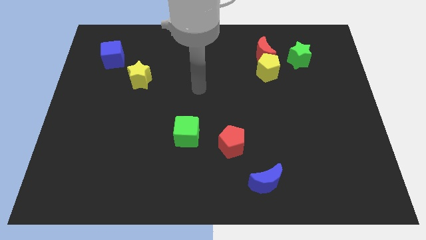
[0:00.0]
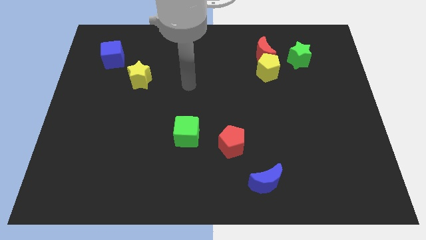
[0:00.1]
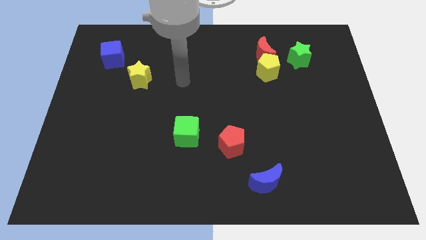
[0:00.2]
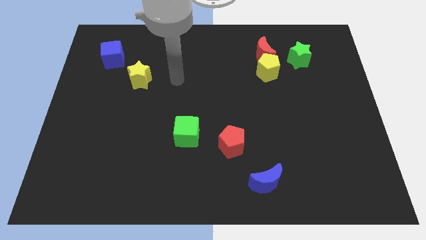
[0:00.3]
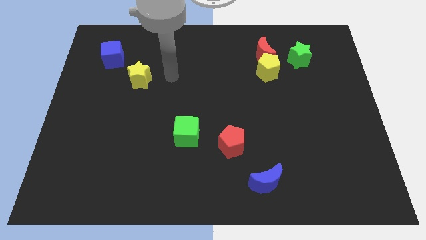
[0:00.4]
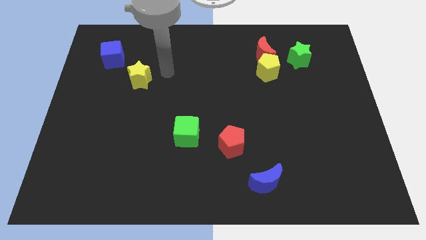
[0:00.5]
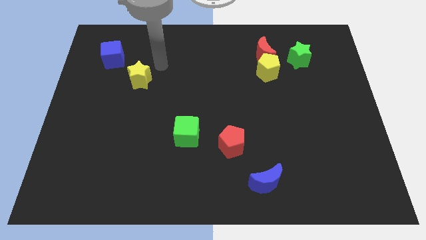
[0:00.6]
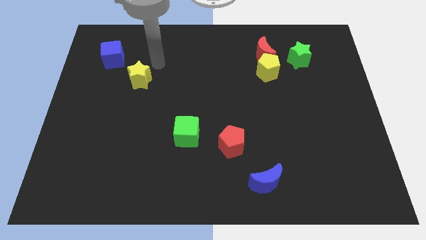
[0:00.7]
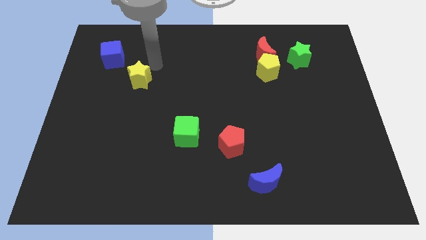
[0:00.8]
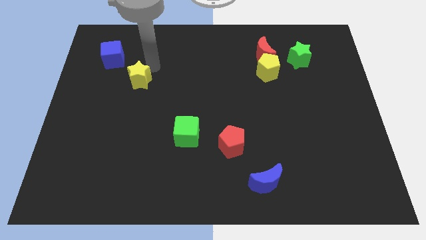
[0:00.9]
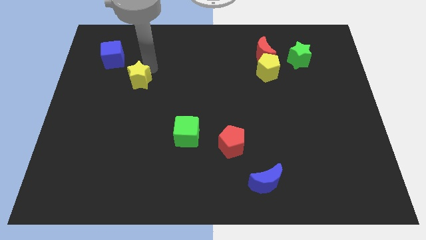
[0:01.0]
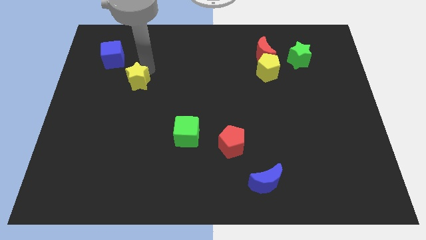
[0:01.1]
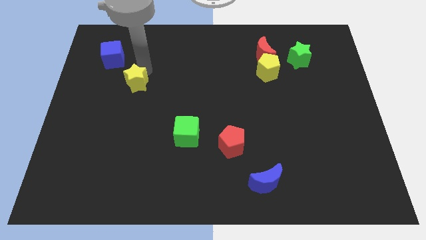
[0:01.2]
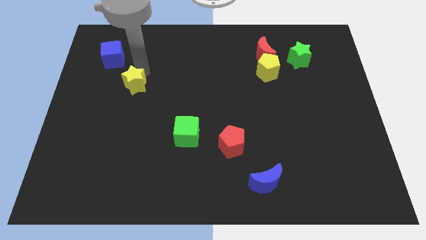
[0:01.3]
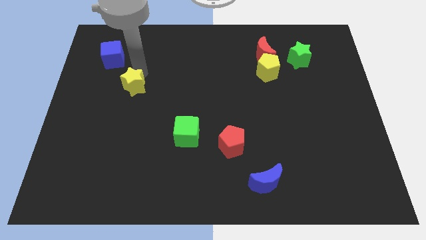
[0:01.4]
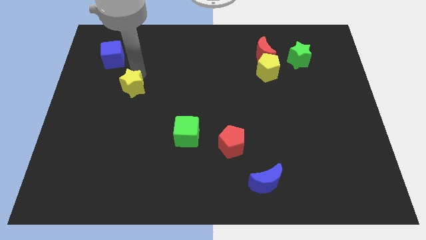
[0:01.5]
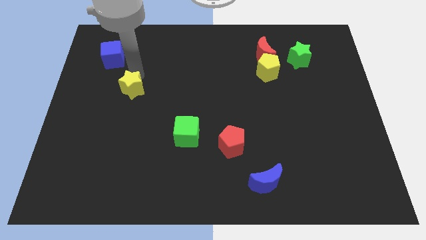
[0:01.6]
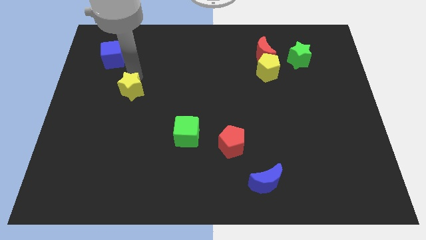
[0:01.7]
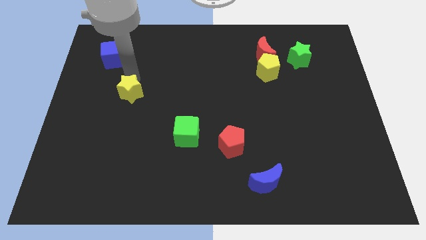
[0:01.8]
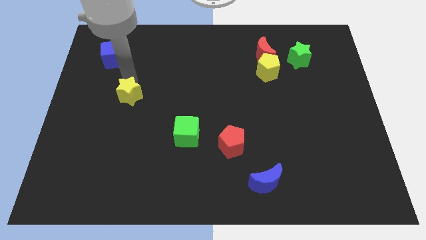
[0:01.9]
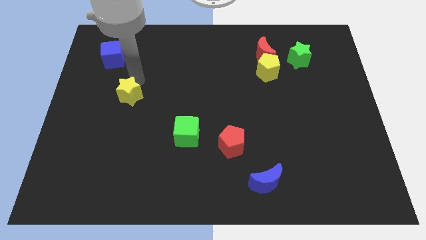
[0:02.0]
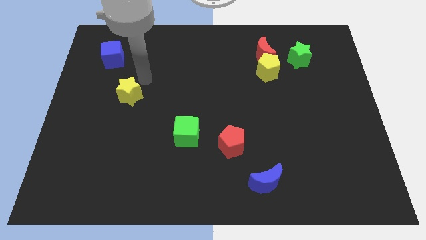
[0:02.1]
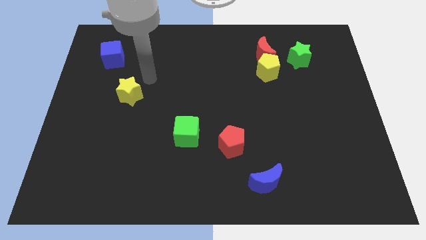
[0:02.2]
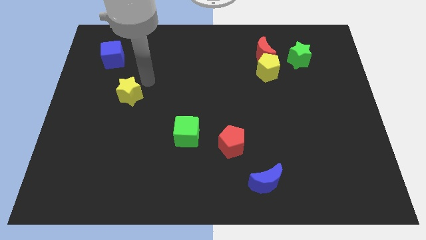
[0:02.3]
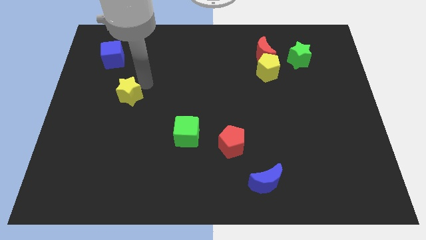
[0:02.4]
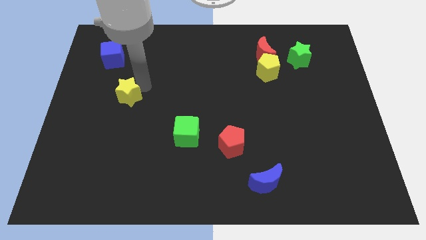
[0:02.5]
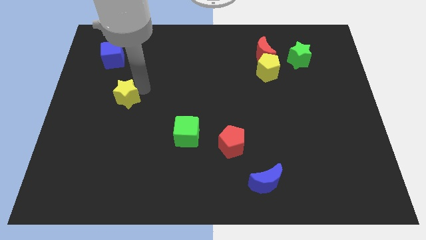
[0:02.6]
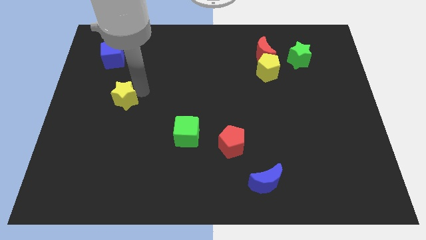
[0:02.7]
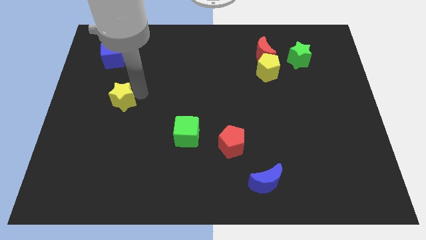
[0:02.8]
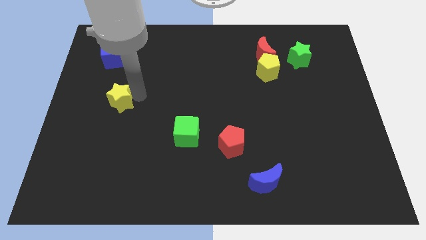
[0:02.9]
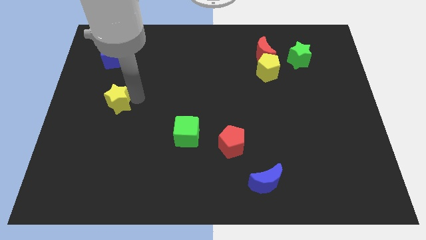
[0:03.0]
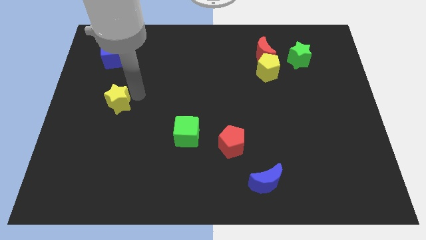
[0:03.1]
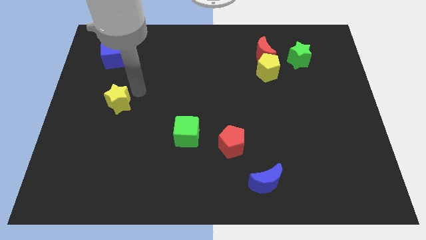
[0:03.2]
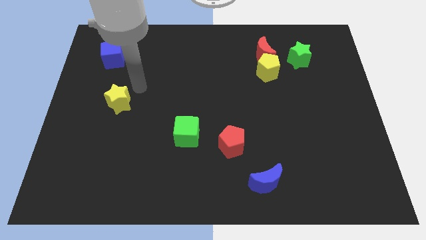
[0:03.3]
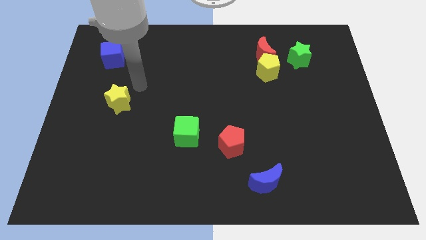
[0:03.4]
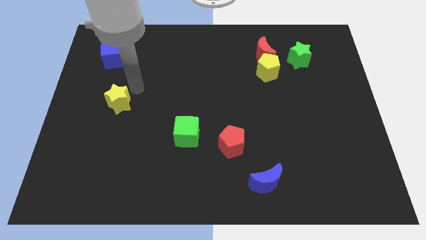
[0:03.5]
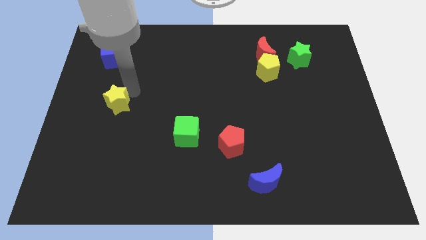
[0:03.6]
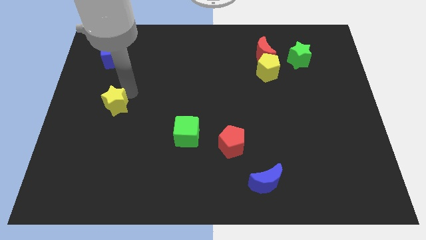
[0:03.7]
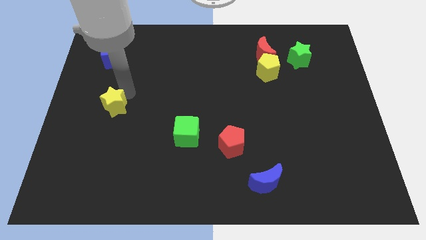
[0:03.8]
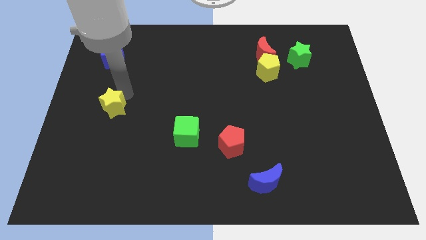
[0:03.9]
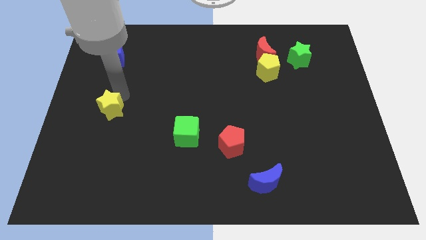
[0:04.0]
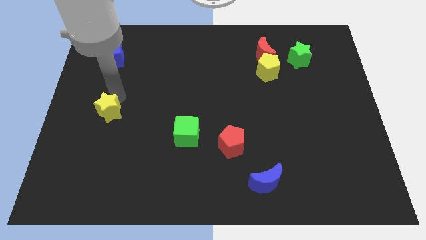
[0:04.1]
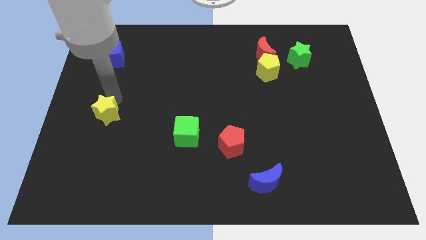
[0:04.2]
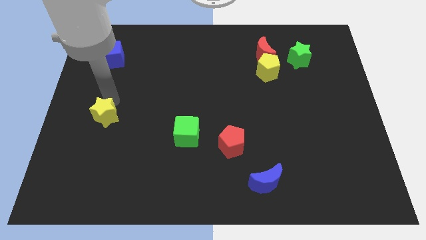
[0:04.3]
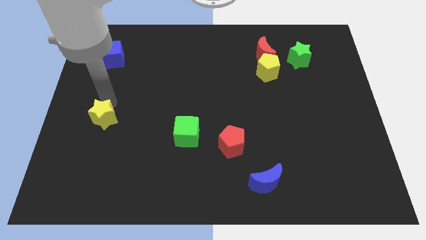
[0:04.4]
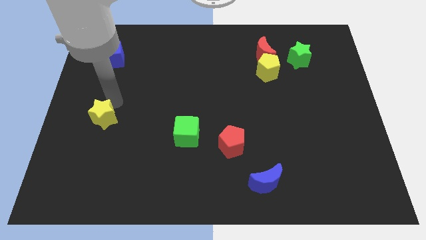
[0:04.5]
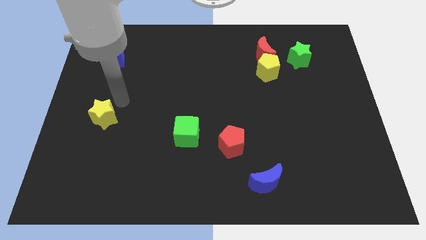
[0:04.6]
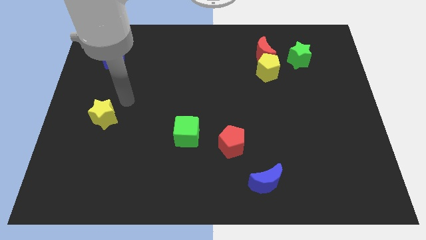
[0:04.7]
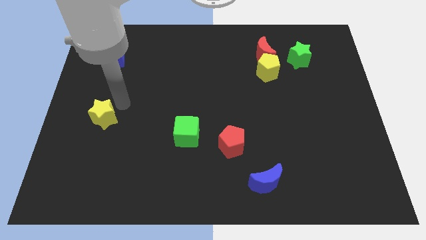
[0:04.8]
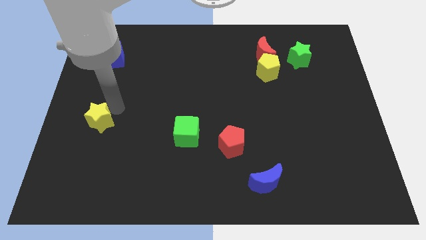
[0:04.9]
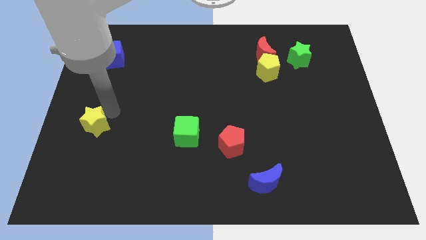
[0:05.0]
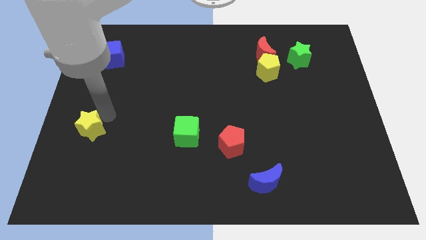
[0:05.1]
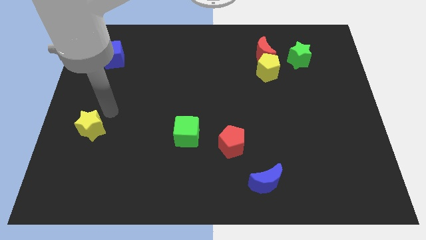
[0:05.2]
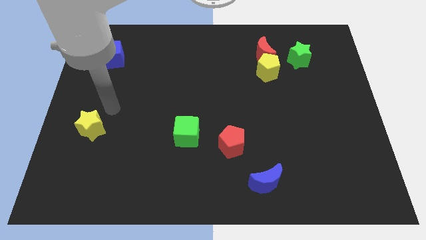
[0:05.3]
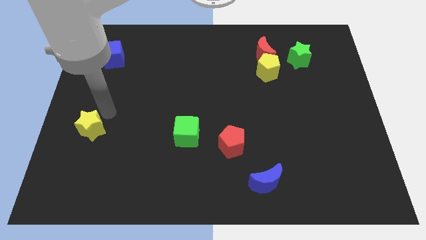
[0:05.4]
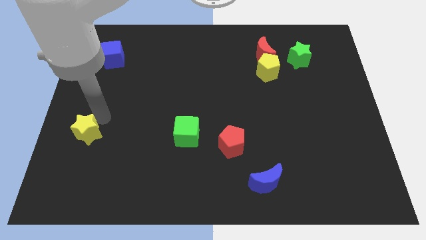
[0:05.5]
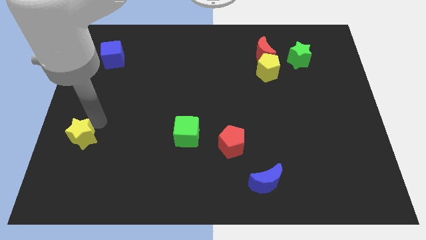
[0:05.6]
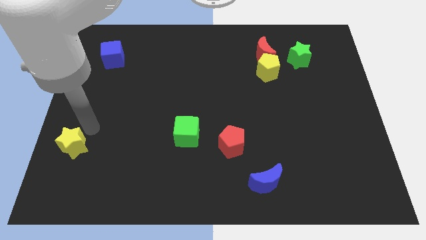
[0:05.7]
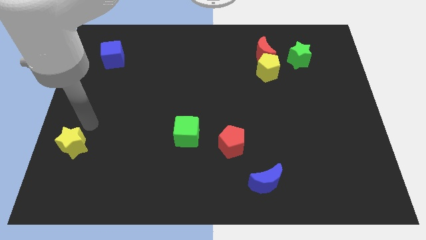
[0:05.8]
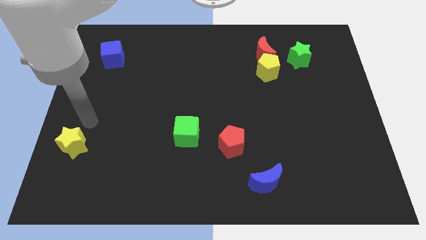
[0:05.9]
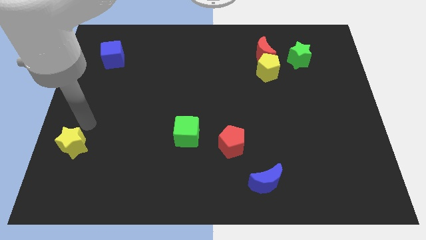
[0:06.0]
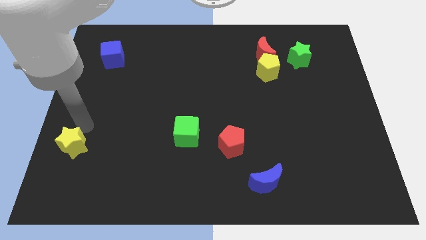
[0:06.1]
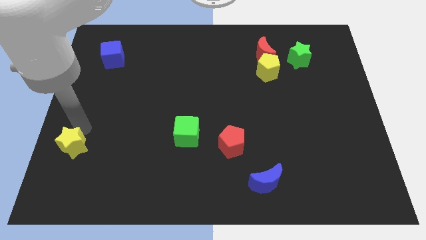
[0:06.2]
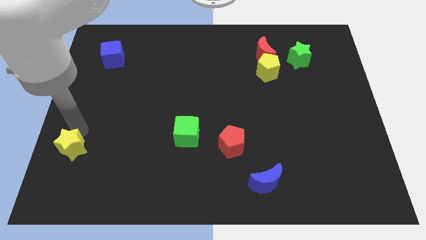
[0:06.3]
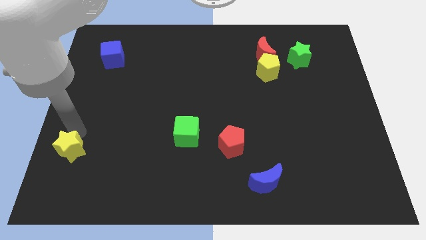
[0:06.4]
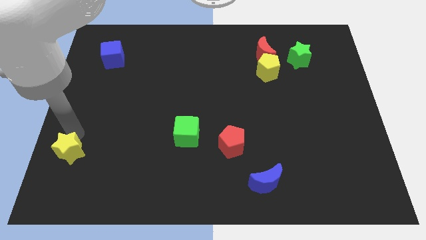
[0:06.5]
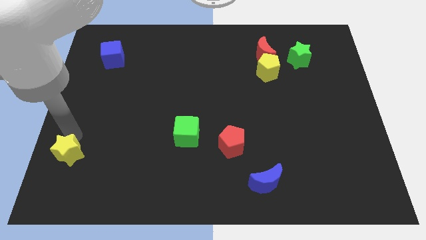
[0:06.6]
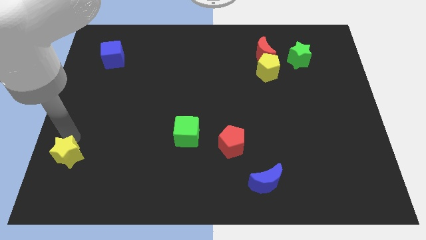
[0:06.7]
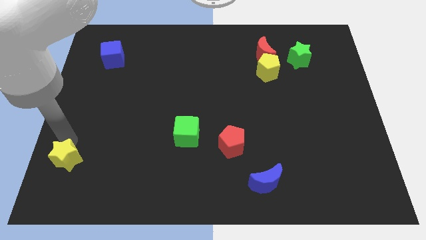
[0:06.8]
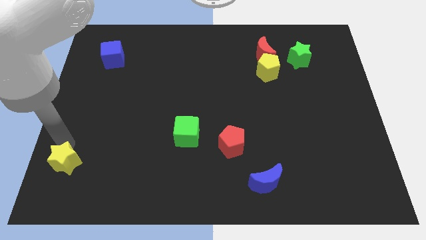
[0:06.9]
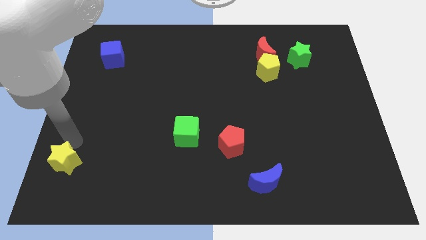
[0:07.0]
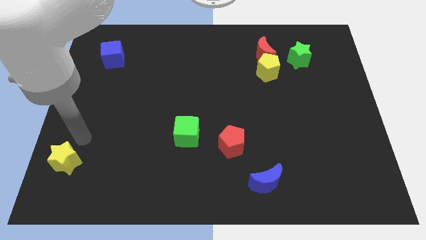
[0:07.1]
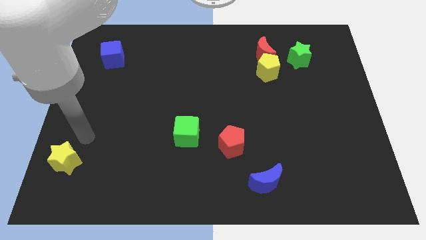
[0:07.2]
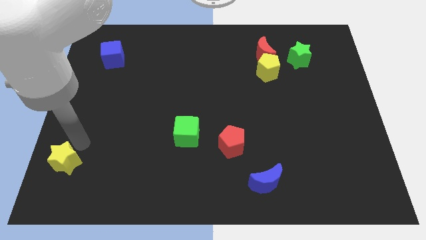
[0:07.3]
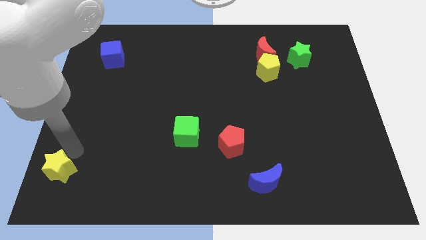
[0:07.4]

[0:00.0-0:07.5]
put the yellow star to the bottom left of the board
